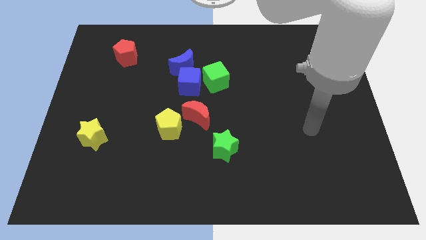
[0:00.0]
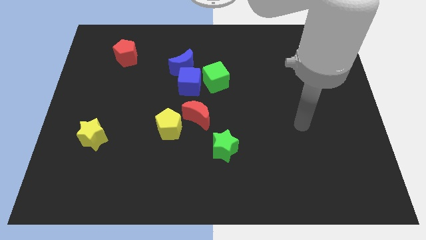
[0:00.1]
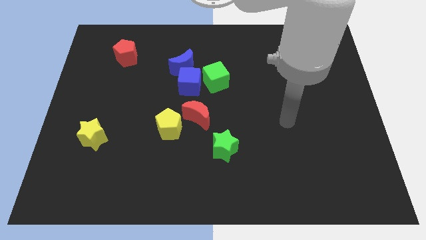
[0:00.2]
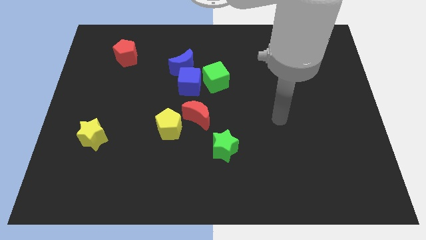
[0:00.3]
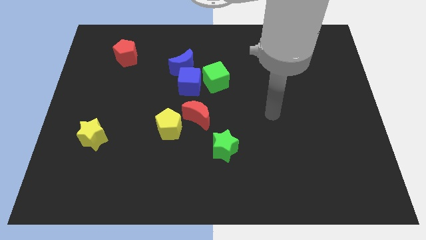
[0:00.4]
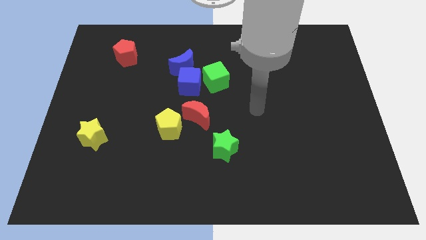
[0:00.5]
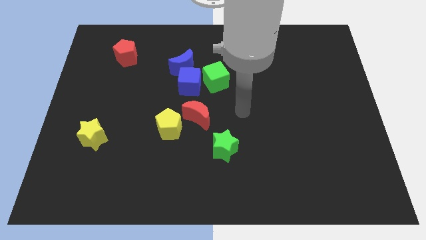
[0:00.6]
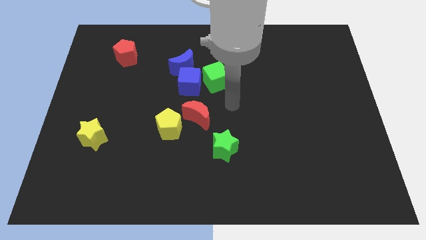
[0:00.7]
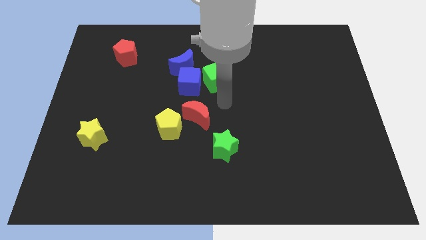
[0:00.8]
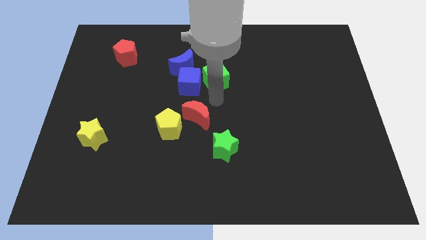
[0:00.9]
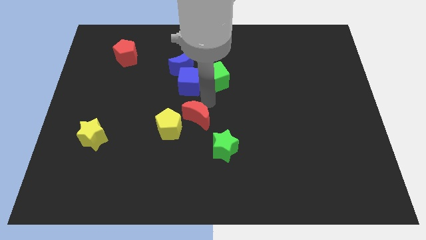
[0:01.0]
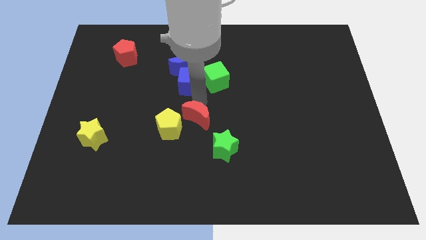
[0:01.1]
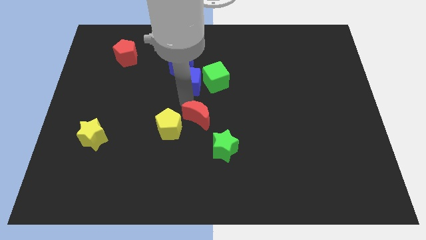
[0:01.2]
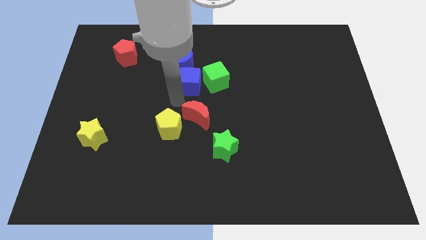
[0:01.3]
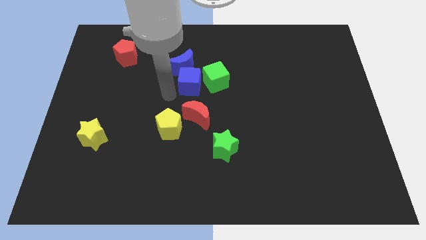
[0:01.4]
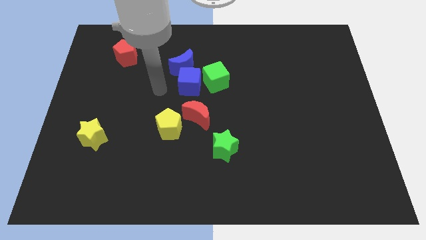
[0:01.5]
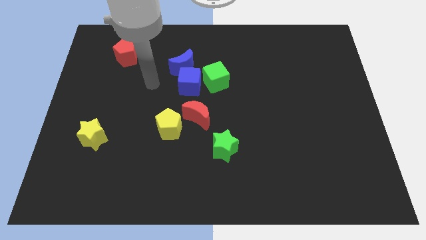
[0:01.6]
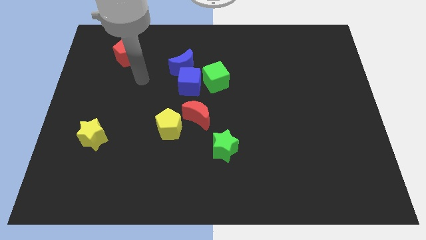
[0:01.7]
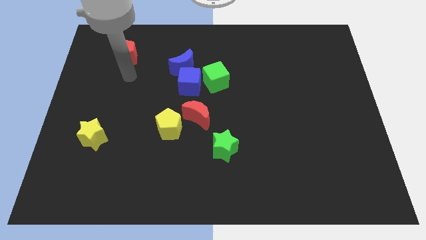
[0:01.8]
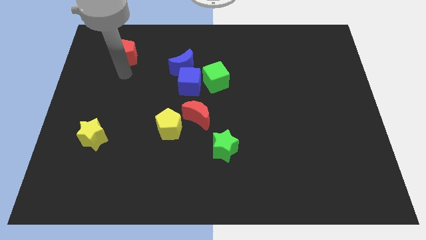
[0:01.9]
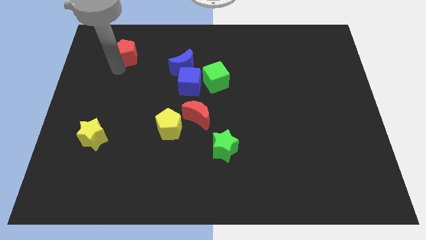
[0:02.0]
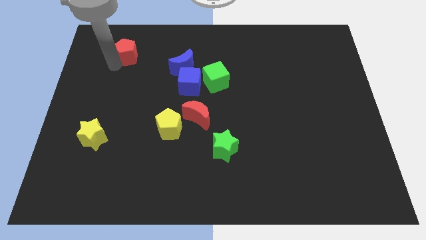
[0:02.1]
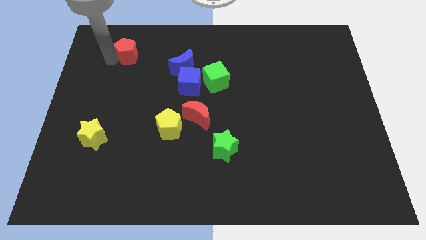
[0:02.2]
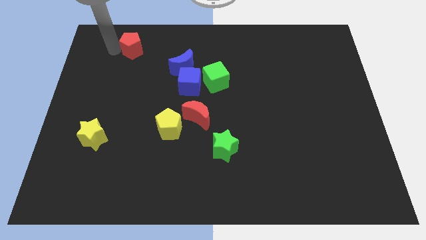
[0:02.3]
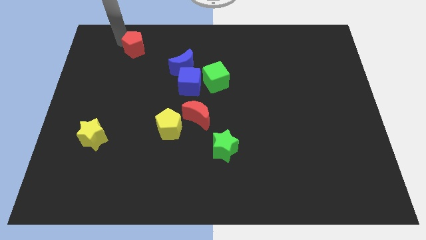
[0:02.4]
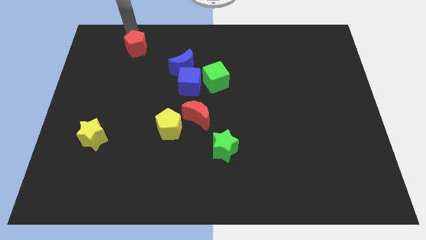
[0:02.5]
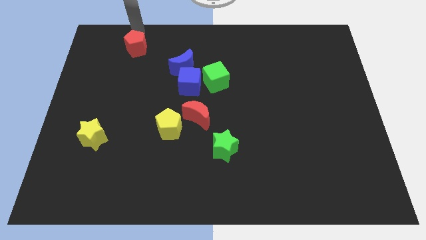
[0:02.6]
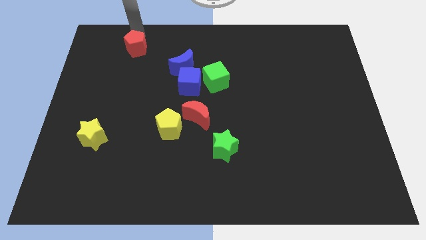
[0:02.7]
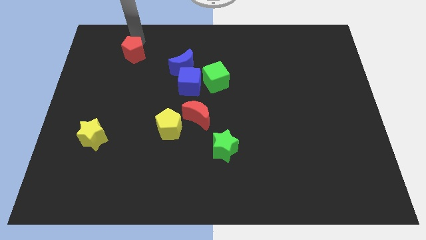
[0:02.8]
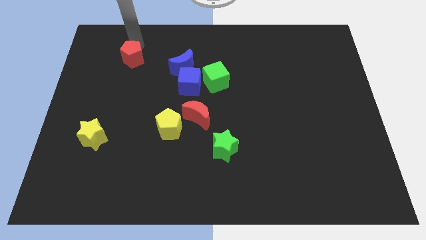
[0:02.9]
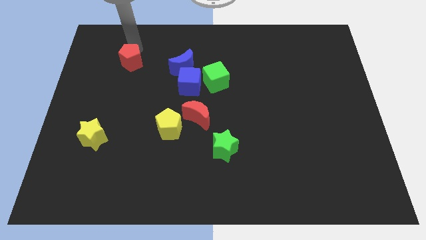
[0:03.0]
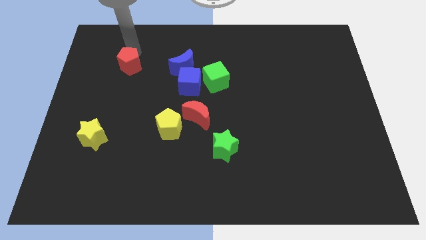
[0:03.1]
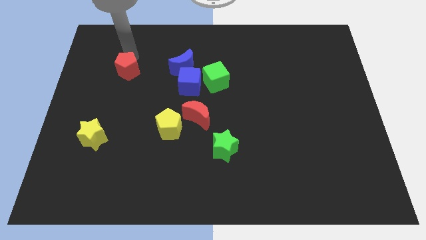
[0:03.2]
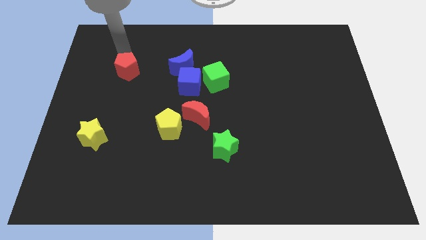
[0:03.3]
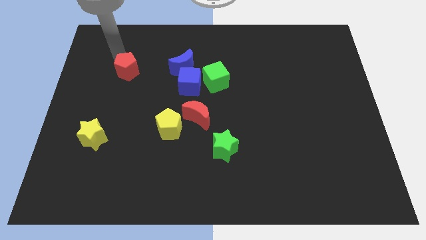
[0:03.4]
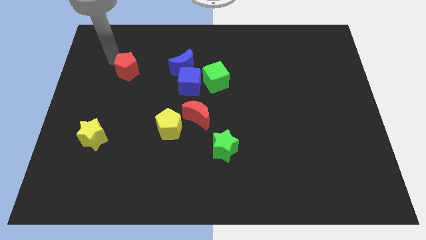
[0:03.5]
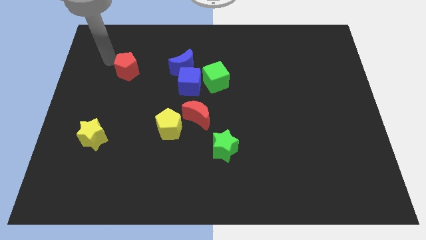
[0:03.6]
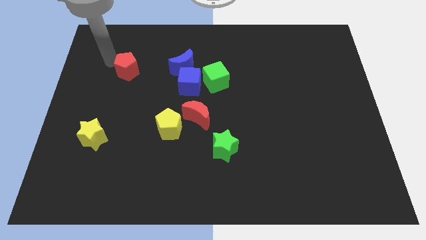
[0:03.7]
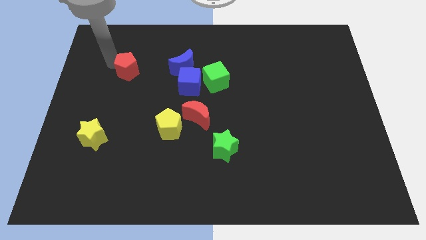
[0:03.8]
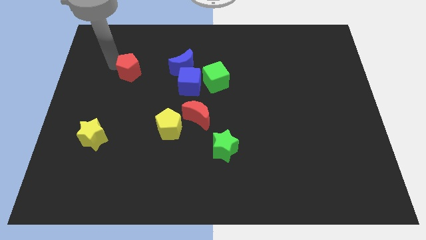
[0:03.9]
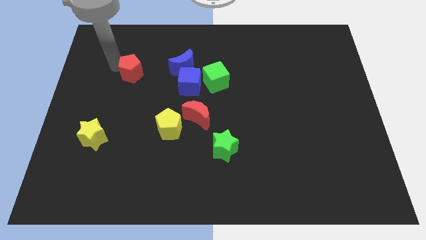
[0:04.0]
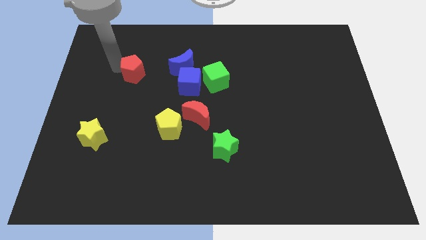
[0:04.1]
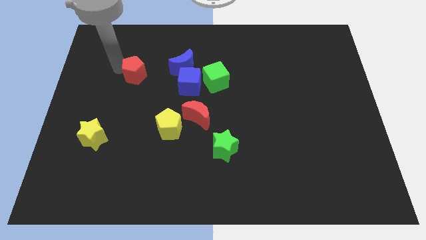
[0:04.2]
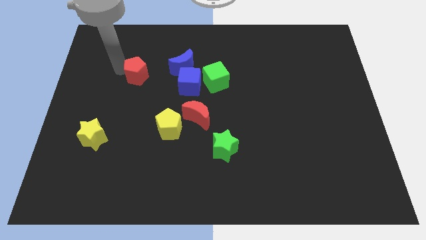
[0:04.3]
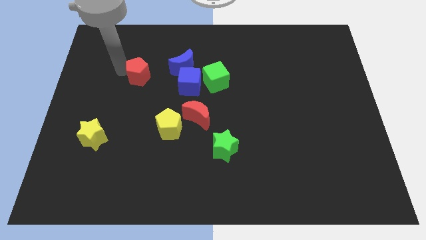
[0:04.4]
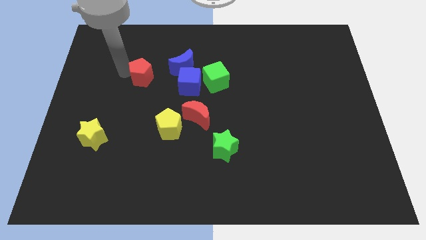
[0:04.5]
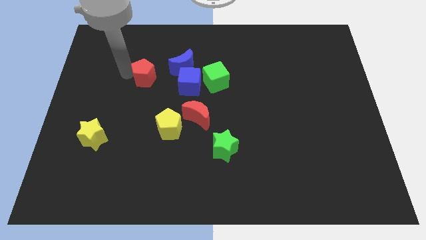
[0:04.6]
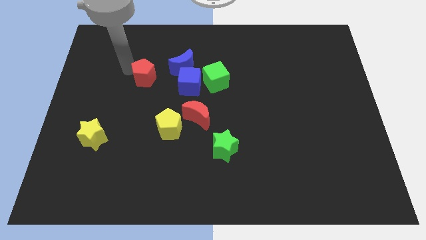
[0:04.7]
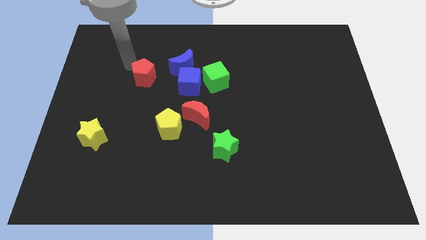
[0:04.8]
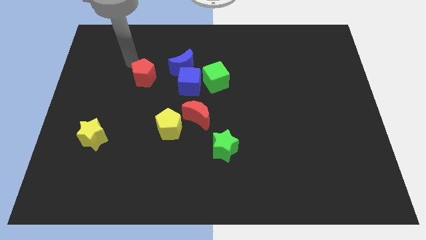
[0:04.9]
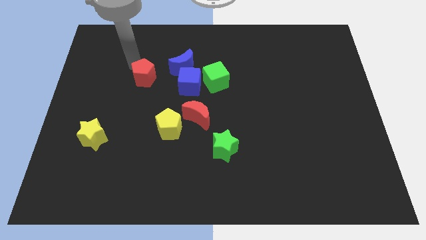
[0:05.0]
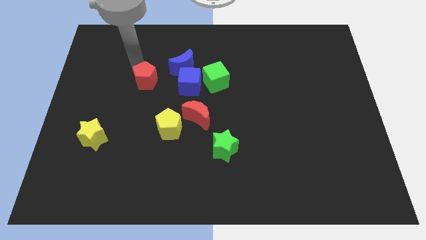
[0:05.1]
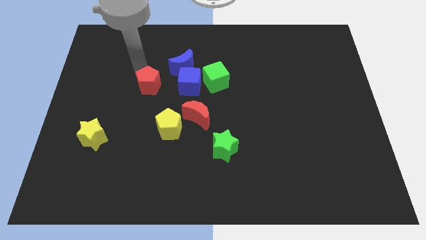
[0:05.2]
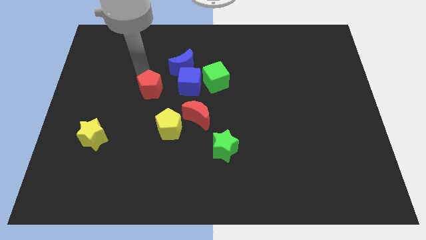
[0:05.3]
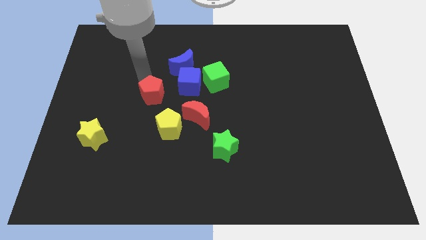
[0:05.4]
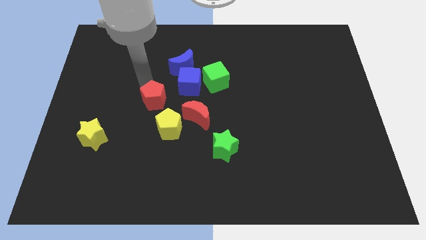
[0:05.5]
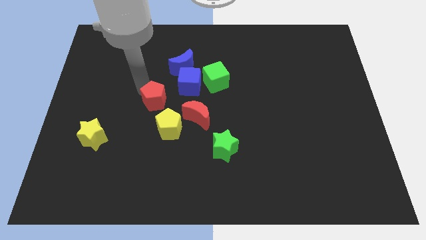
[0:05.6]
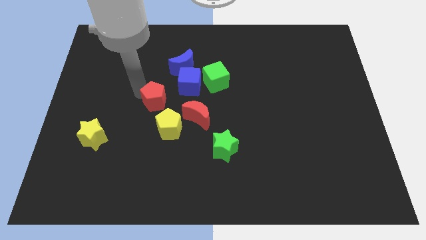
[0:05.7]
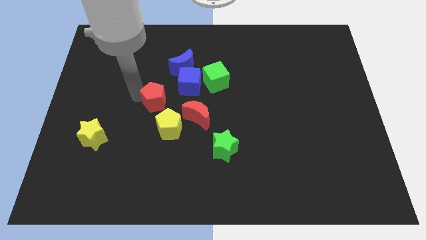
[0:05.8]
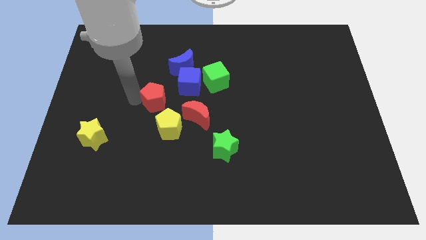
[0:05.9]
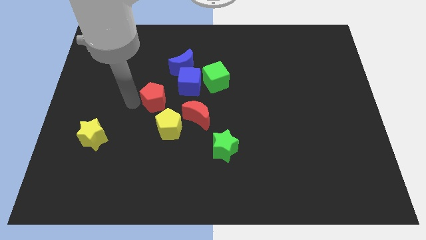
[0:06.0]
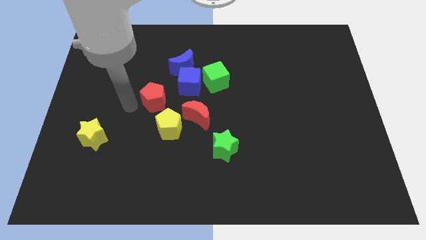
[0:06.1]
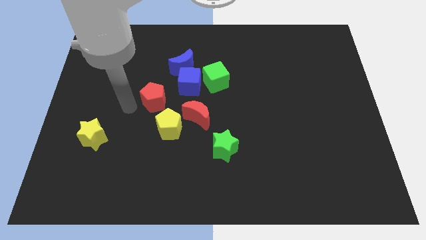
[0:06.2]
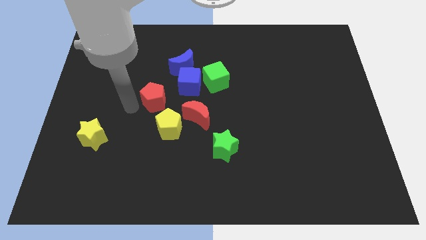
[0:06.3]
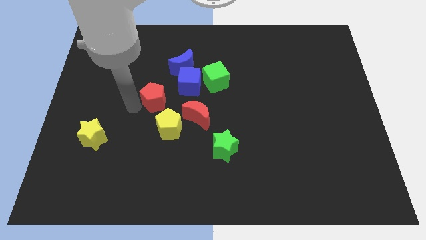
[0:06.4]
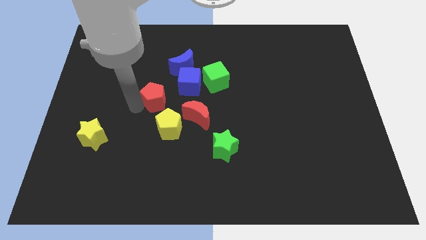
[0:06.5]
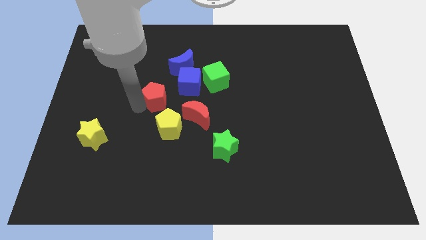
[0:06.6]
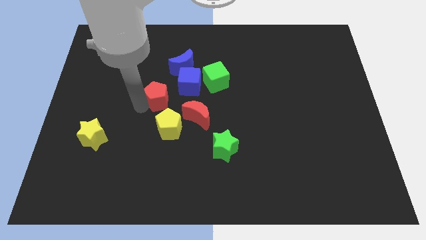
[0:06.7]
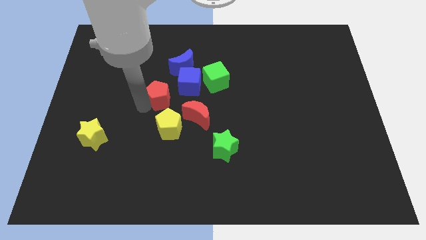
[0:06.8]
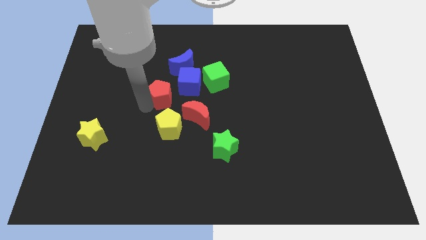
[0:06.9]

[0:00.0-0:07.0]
push the red pentagon to the middle of the board
